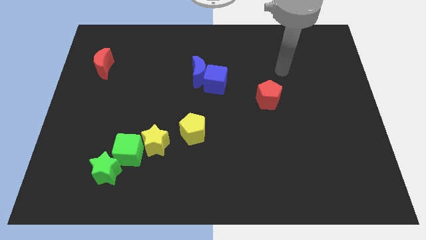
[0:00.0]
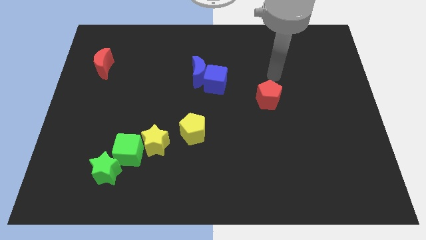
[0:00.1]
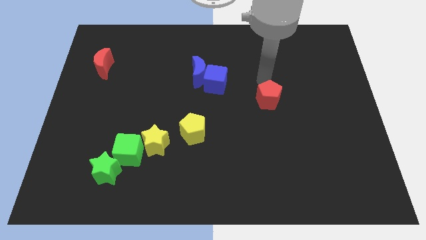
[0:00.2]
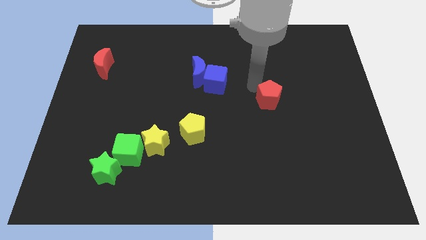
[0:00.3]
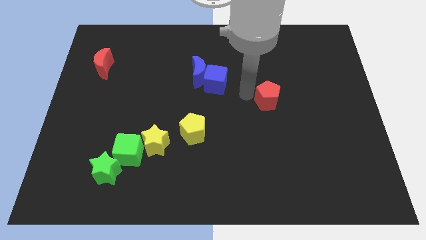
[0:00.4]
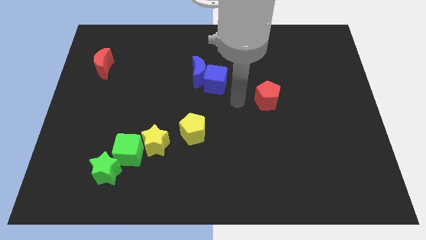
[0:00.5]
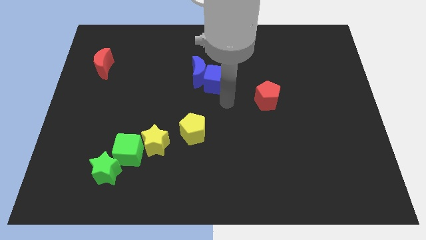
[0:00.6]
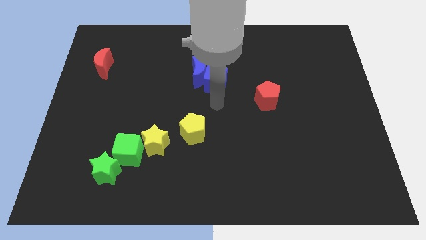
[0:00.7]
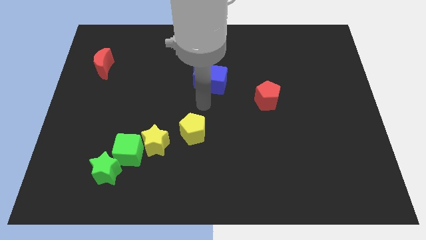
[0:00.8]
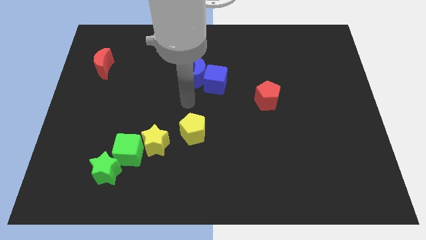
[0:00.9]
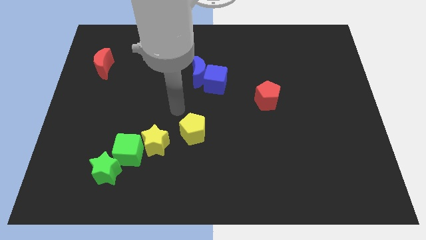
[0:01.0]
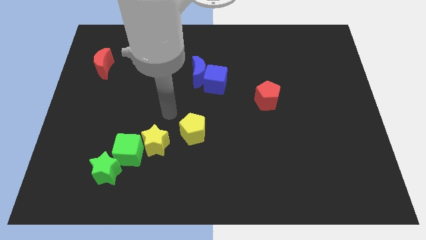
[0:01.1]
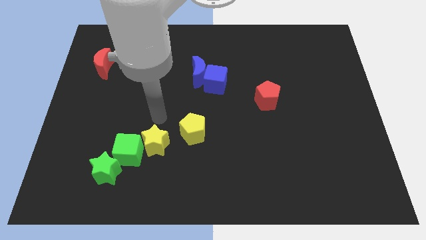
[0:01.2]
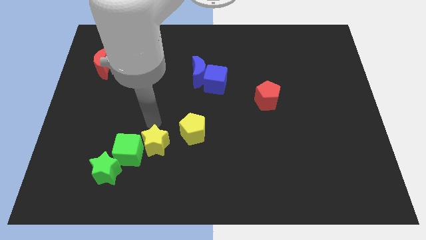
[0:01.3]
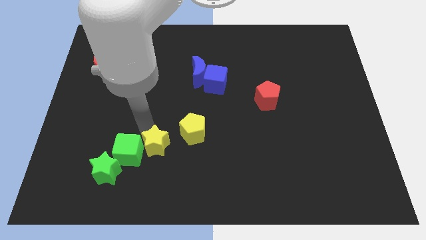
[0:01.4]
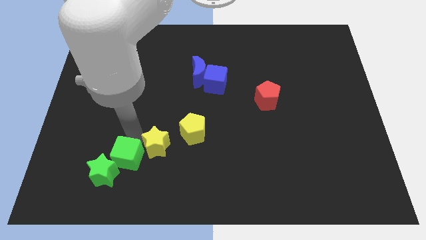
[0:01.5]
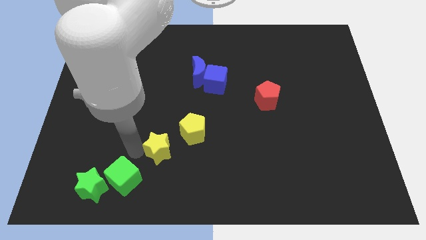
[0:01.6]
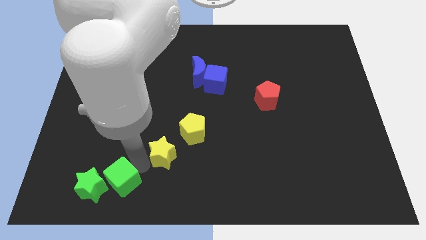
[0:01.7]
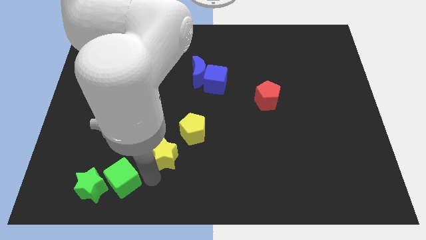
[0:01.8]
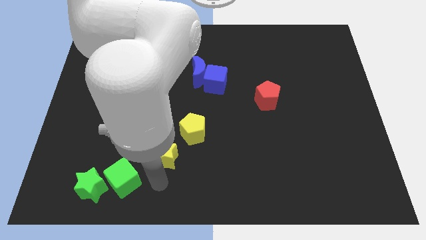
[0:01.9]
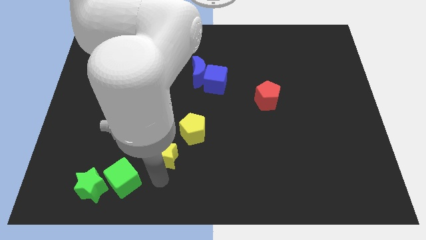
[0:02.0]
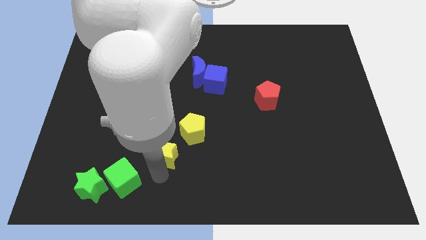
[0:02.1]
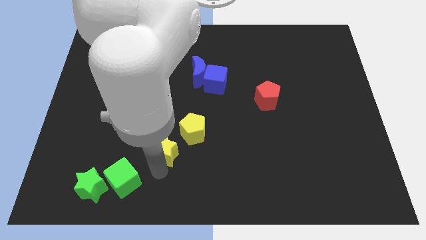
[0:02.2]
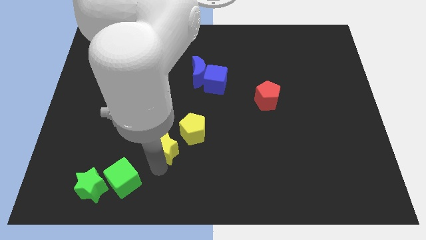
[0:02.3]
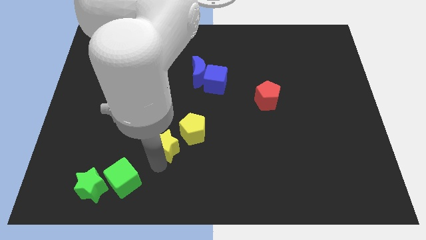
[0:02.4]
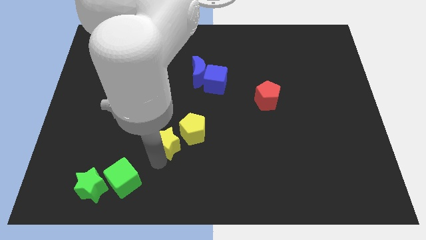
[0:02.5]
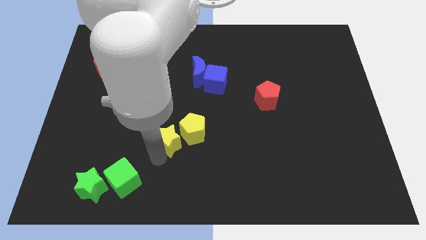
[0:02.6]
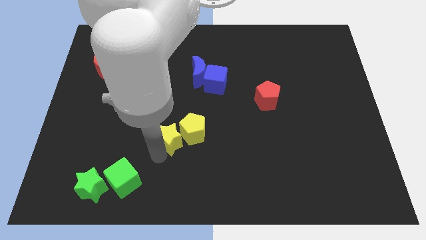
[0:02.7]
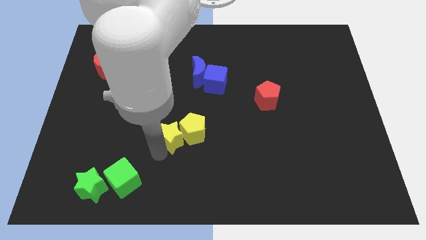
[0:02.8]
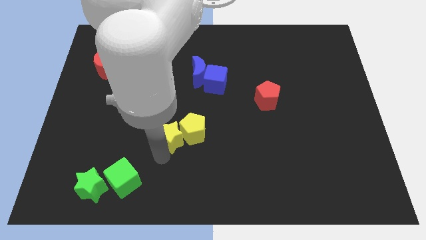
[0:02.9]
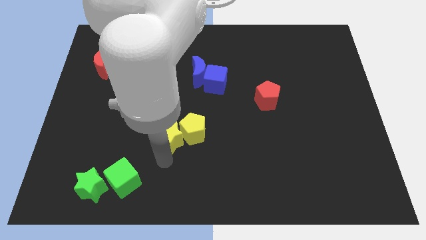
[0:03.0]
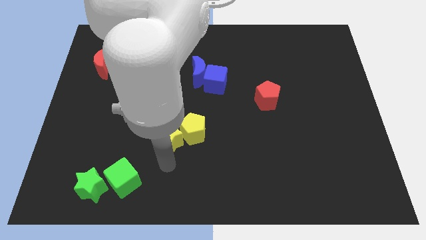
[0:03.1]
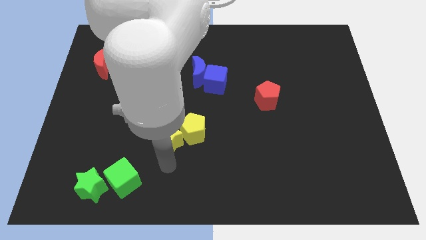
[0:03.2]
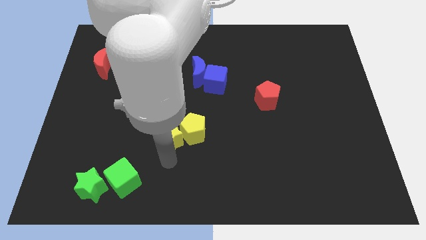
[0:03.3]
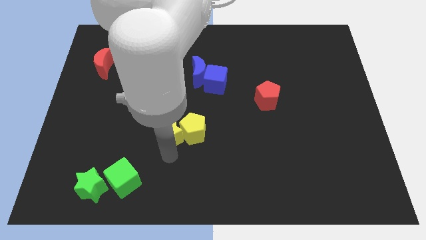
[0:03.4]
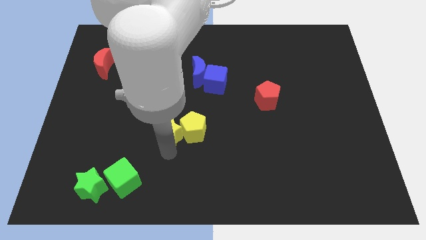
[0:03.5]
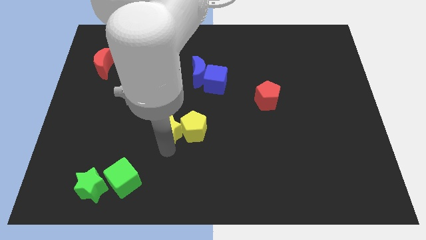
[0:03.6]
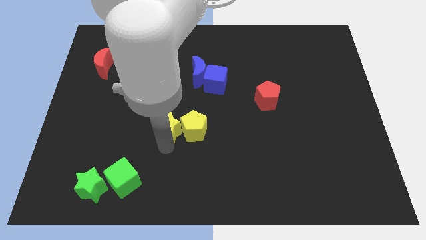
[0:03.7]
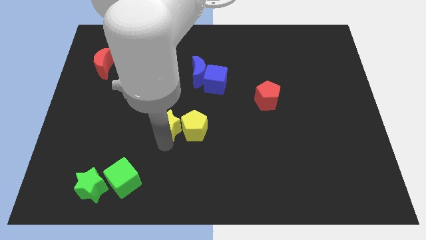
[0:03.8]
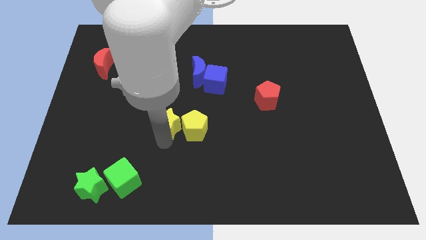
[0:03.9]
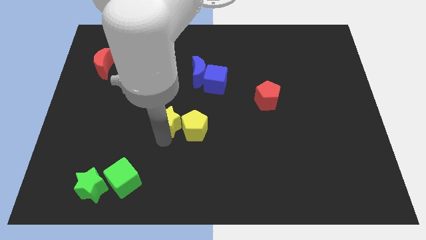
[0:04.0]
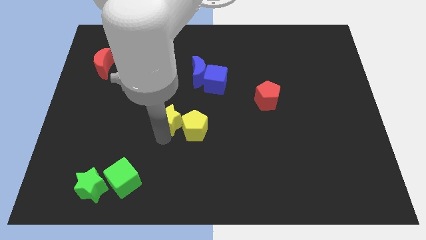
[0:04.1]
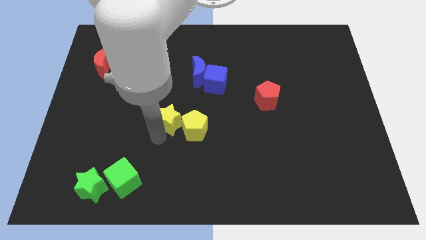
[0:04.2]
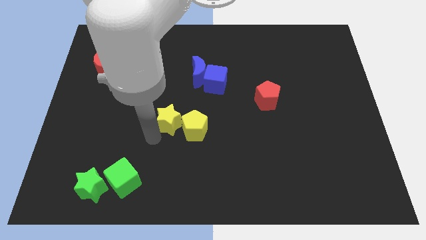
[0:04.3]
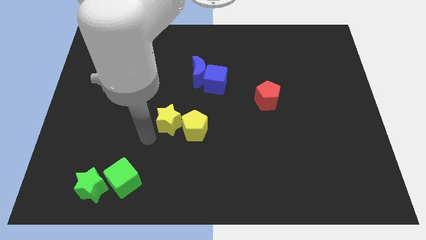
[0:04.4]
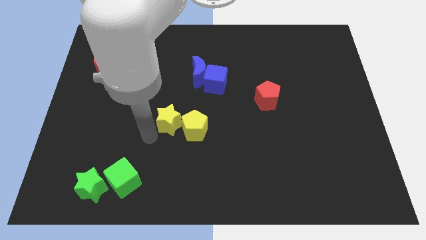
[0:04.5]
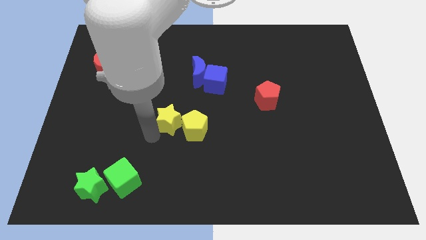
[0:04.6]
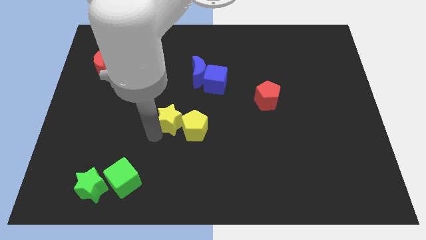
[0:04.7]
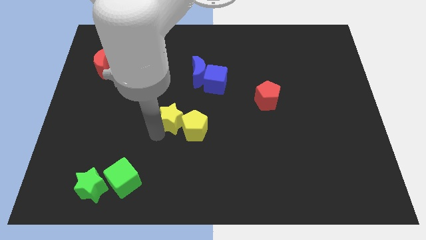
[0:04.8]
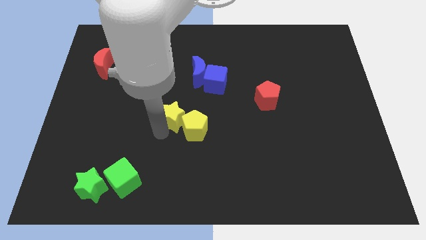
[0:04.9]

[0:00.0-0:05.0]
slightly move the yellow star upwards and right diagonally

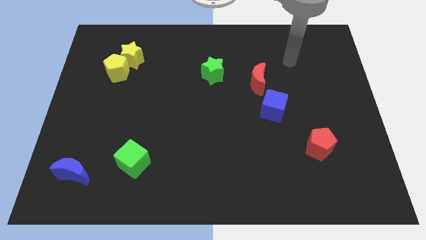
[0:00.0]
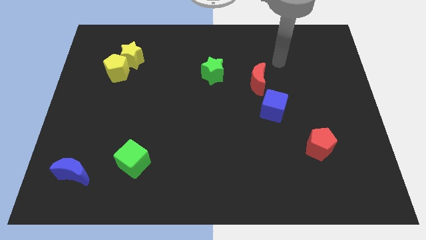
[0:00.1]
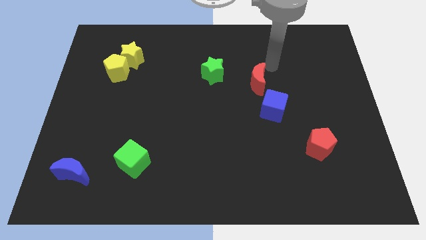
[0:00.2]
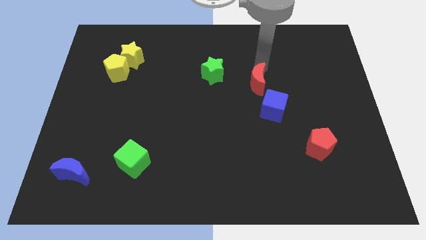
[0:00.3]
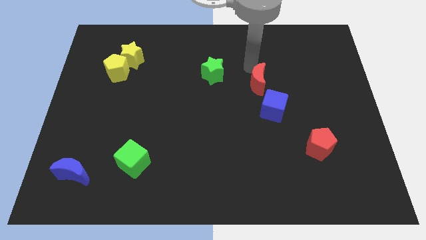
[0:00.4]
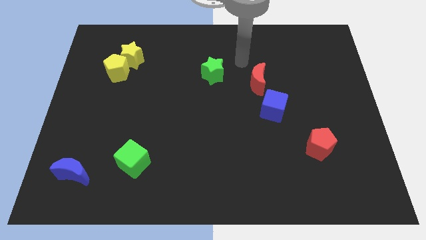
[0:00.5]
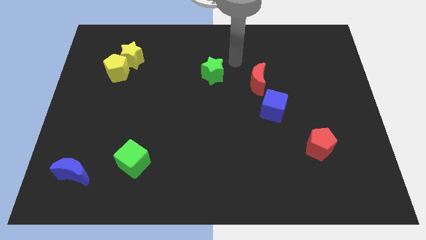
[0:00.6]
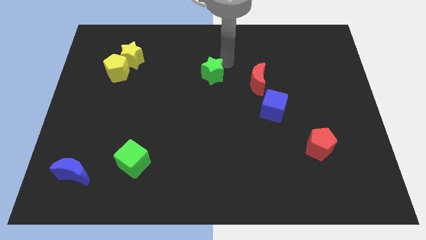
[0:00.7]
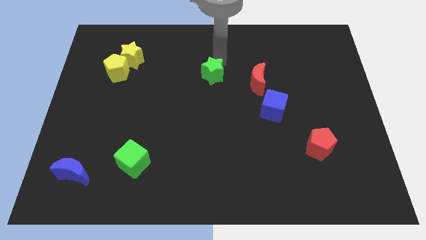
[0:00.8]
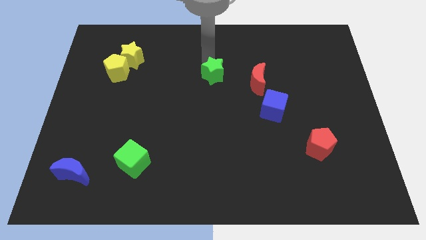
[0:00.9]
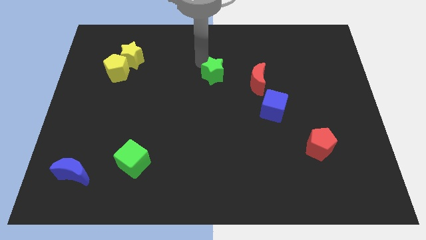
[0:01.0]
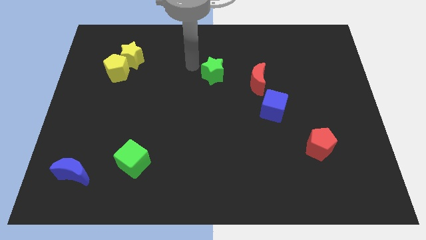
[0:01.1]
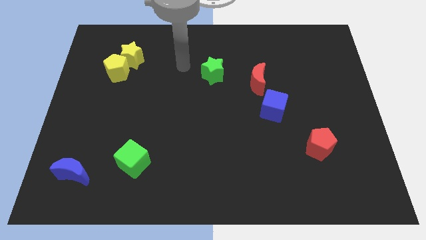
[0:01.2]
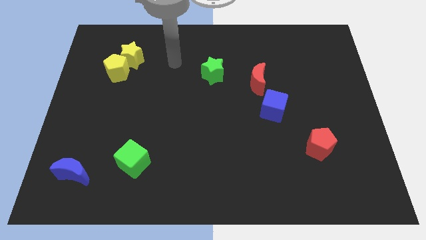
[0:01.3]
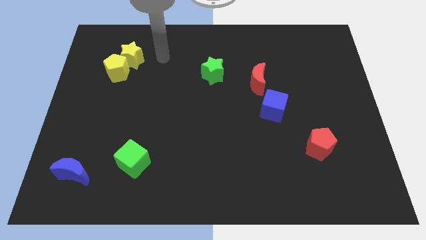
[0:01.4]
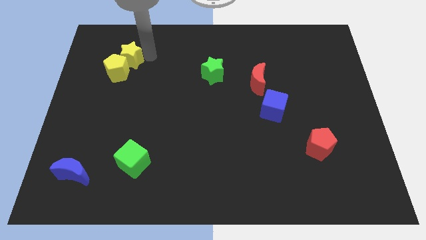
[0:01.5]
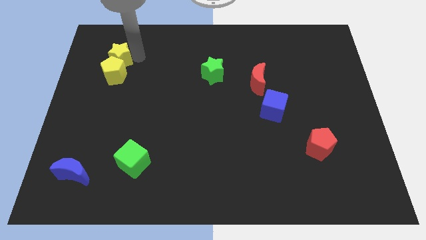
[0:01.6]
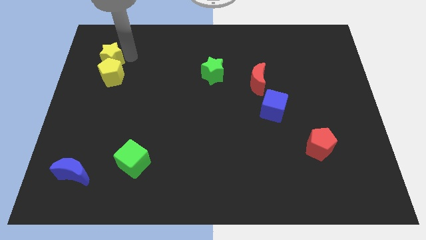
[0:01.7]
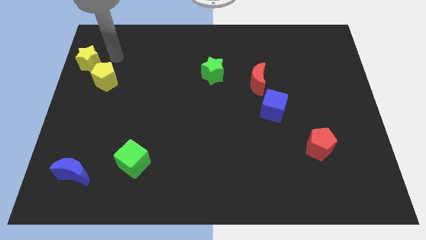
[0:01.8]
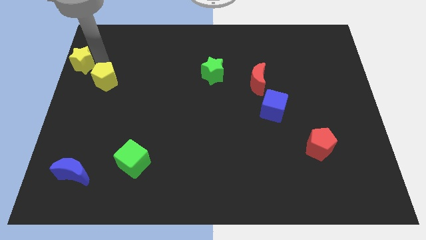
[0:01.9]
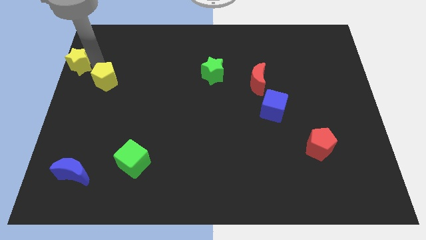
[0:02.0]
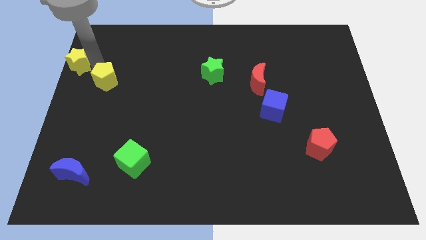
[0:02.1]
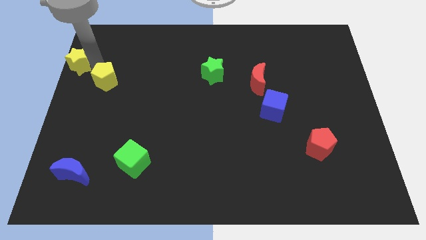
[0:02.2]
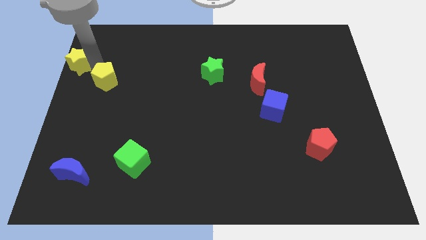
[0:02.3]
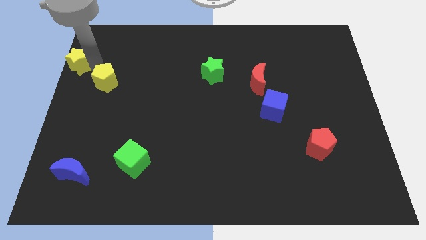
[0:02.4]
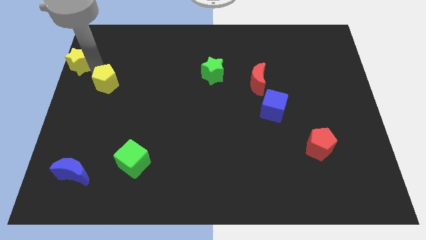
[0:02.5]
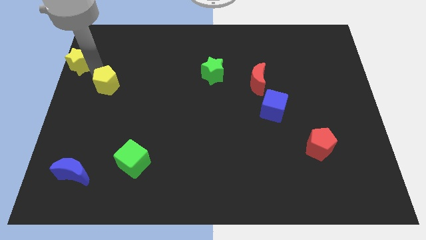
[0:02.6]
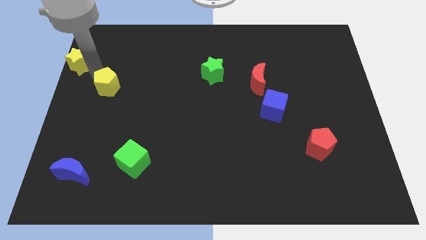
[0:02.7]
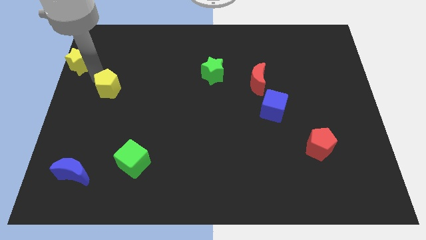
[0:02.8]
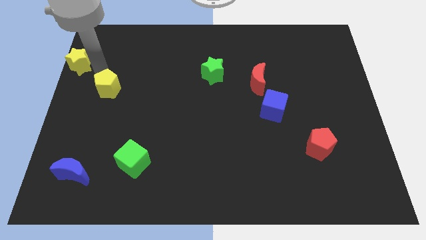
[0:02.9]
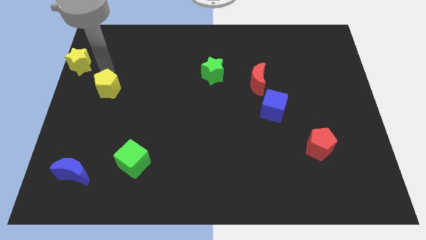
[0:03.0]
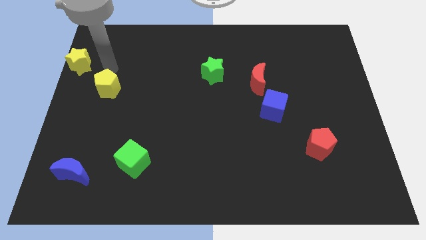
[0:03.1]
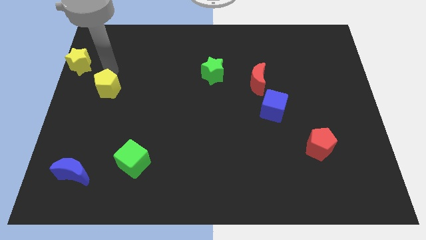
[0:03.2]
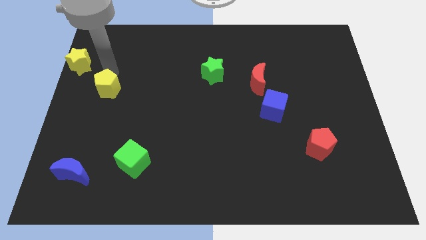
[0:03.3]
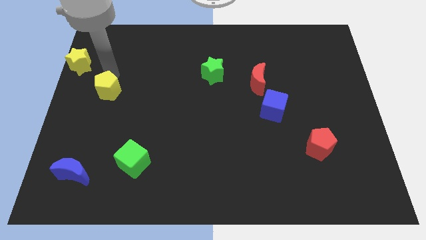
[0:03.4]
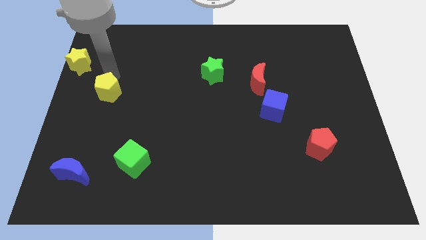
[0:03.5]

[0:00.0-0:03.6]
slide the yellow pentagon a bit downwards
